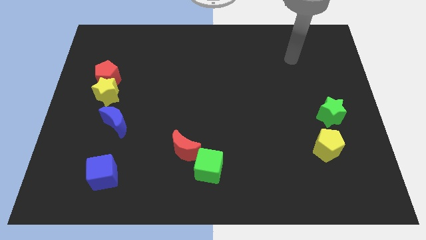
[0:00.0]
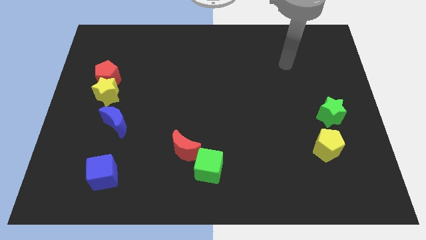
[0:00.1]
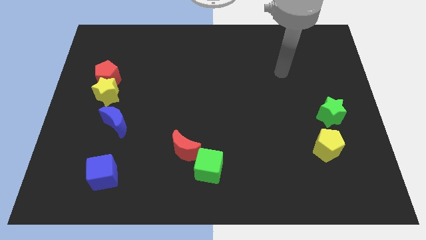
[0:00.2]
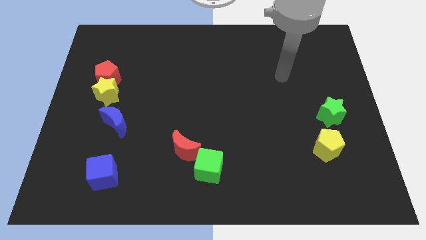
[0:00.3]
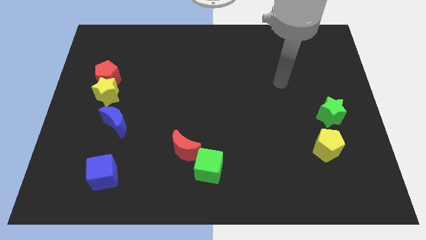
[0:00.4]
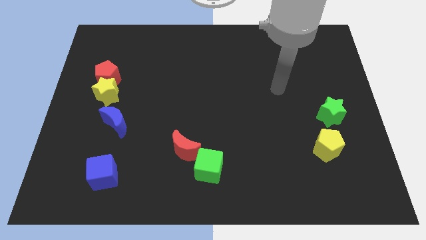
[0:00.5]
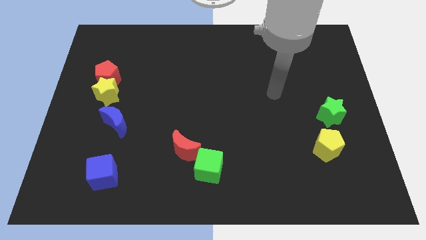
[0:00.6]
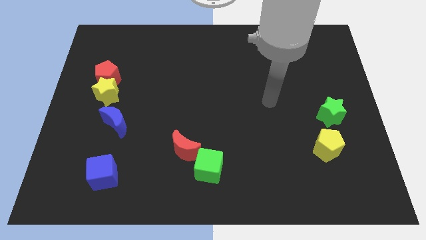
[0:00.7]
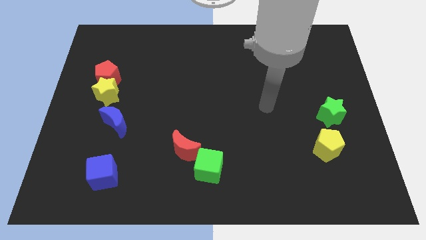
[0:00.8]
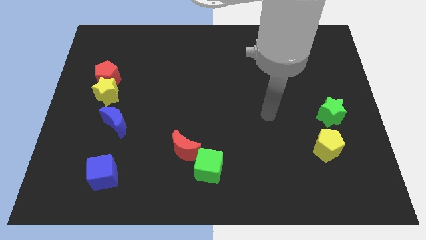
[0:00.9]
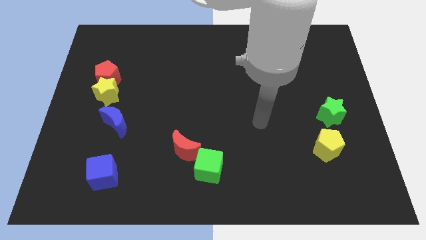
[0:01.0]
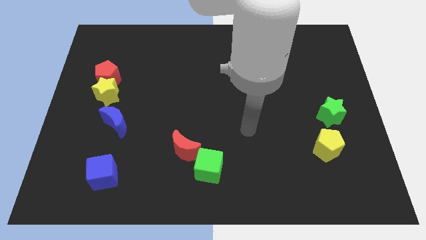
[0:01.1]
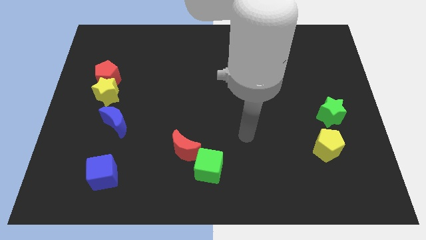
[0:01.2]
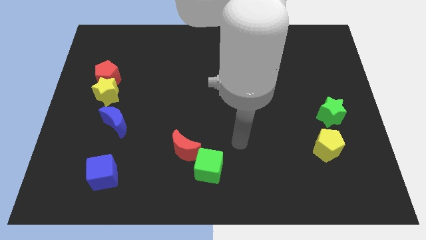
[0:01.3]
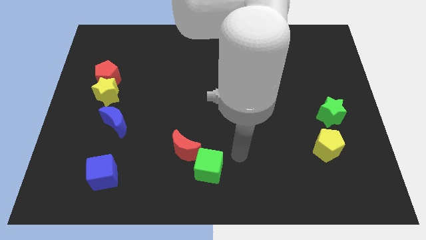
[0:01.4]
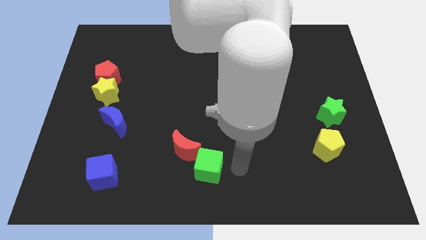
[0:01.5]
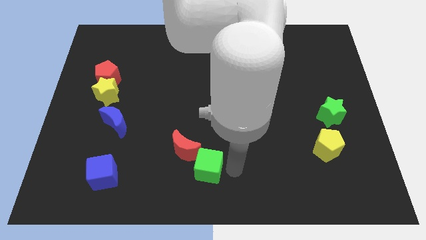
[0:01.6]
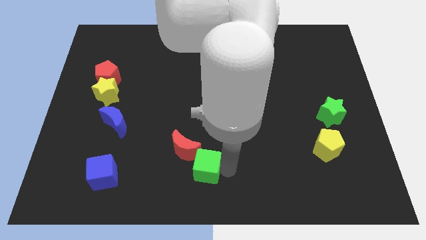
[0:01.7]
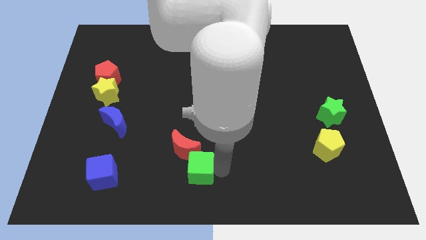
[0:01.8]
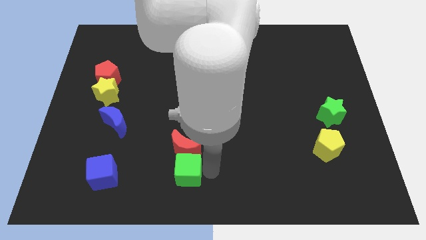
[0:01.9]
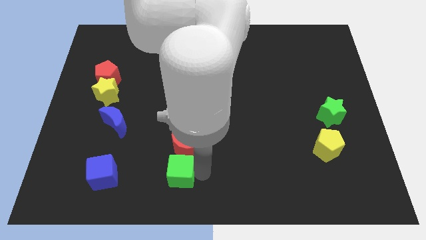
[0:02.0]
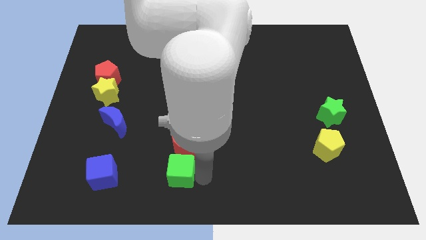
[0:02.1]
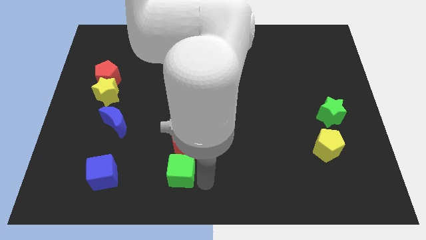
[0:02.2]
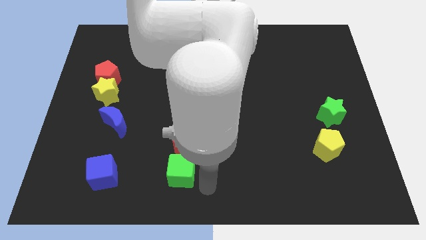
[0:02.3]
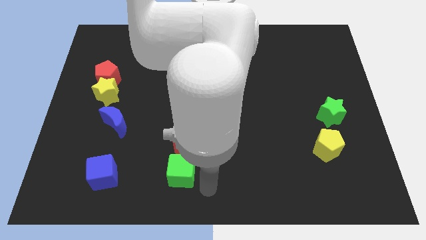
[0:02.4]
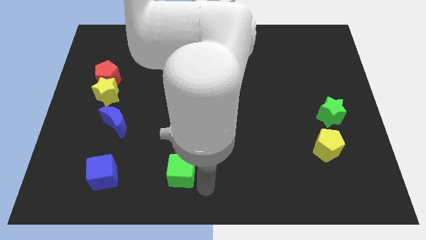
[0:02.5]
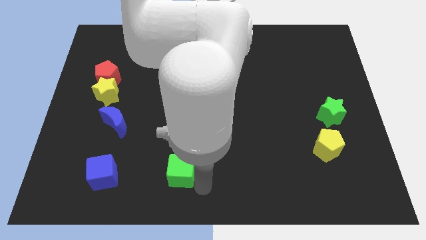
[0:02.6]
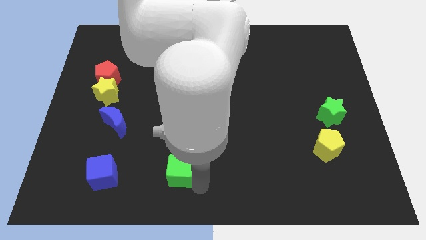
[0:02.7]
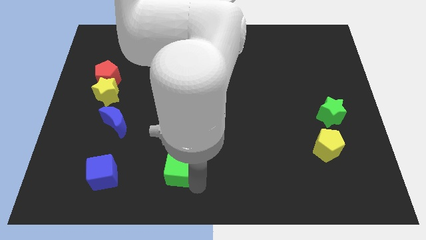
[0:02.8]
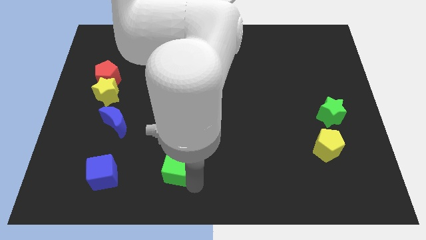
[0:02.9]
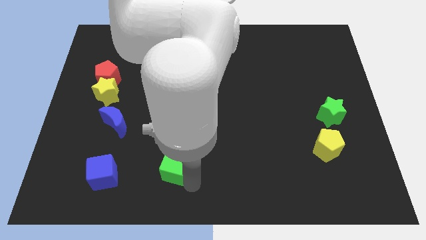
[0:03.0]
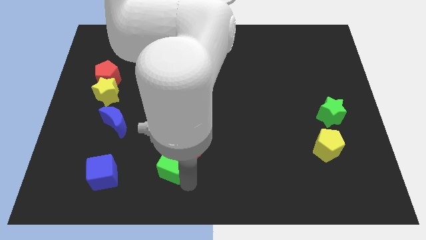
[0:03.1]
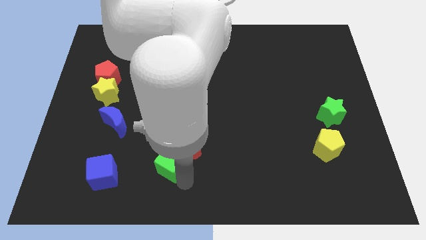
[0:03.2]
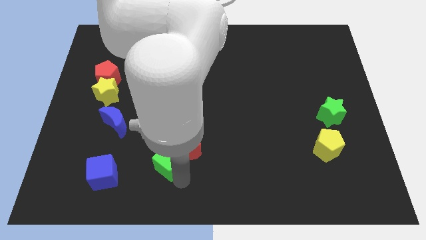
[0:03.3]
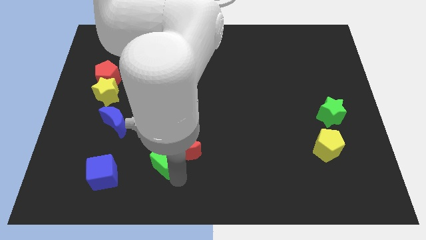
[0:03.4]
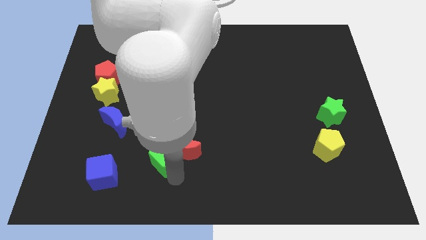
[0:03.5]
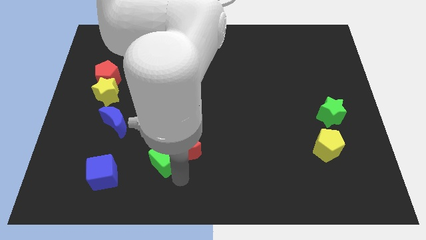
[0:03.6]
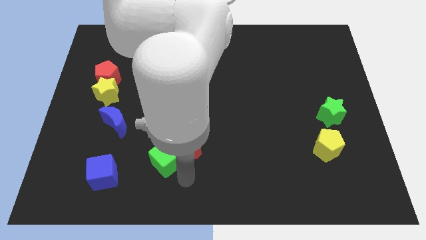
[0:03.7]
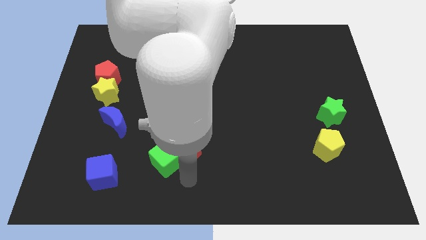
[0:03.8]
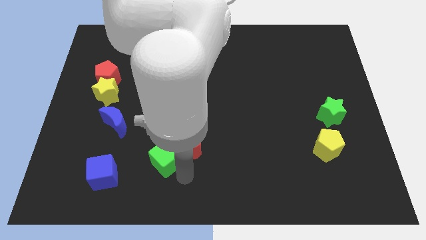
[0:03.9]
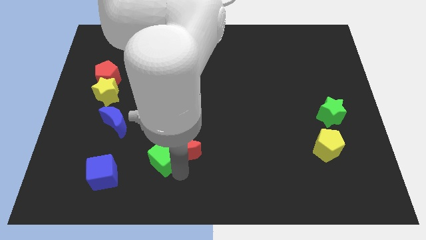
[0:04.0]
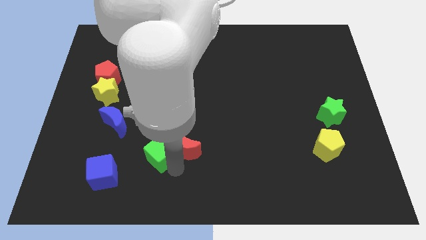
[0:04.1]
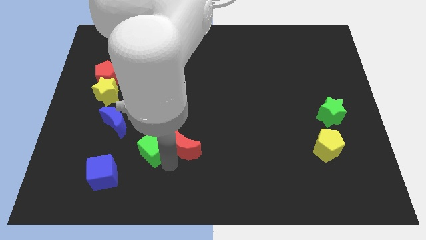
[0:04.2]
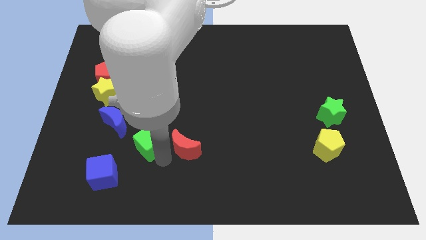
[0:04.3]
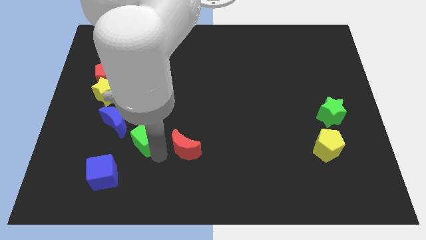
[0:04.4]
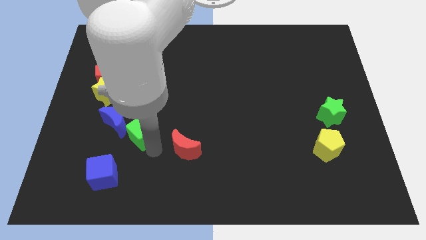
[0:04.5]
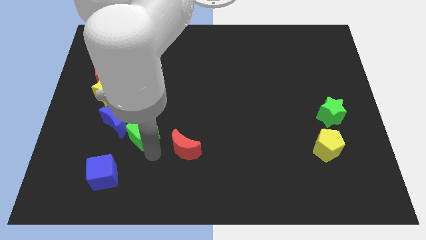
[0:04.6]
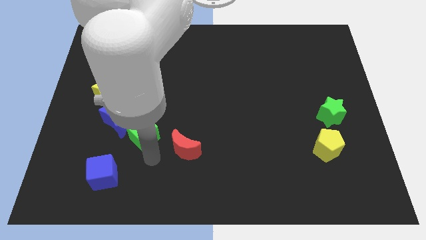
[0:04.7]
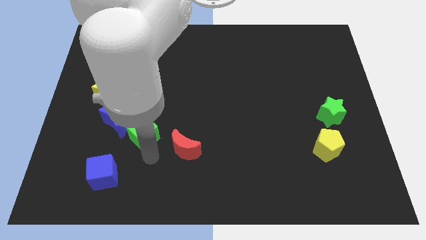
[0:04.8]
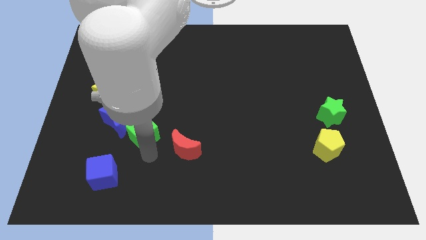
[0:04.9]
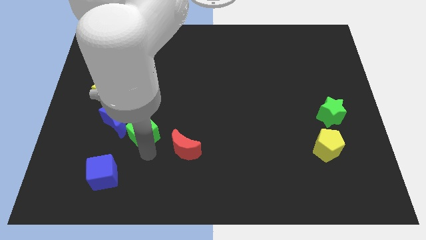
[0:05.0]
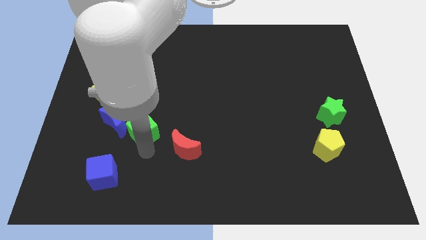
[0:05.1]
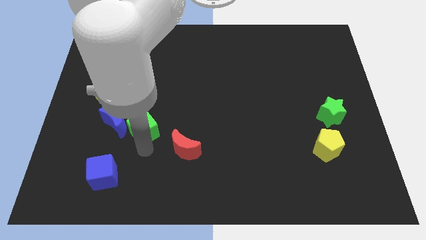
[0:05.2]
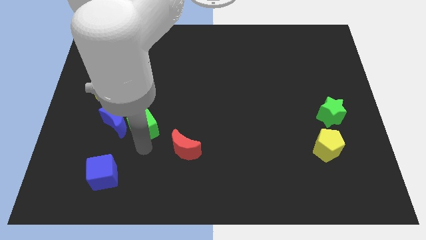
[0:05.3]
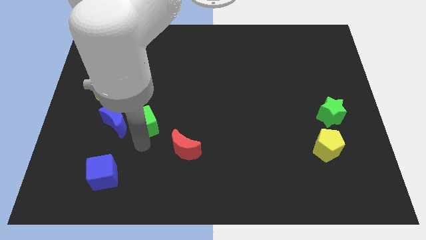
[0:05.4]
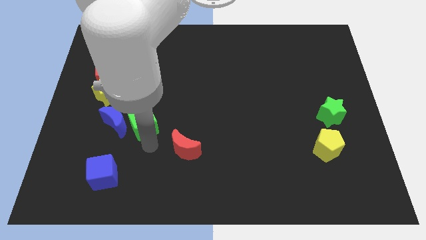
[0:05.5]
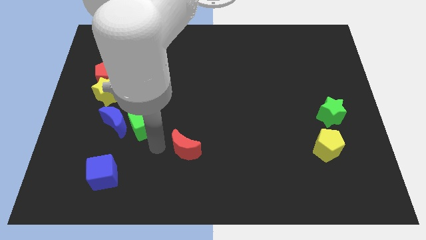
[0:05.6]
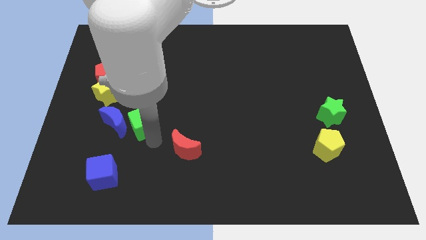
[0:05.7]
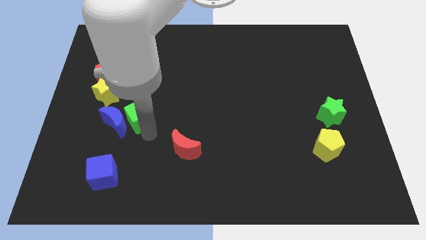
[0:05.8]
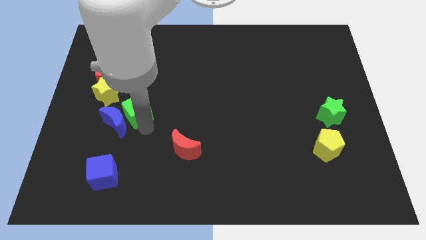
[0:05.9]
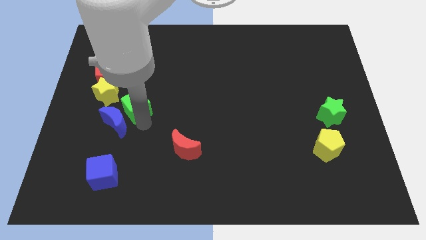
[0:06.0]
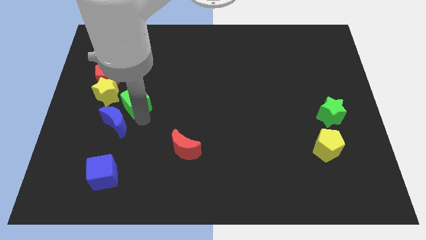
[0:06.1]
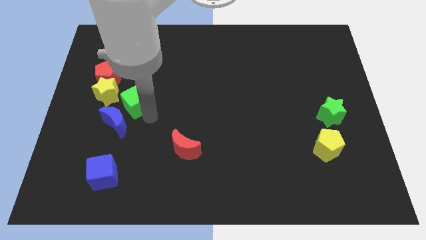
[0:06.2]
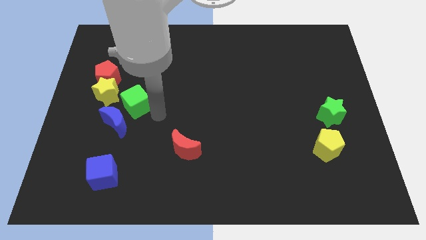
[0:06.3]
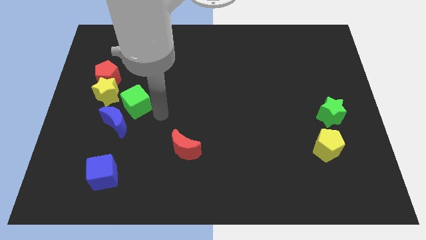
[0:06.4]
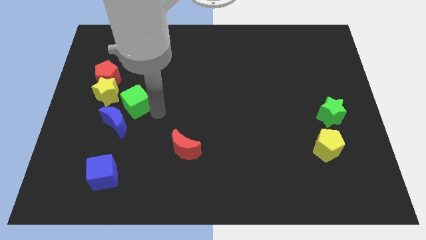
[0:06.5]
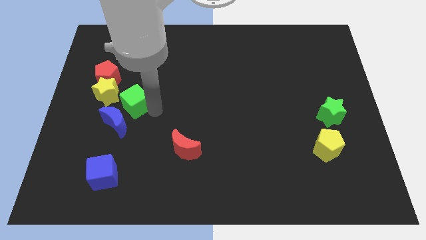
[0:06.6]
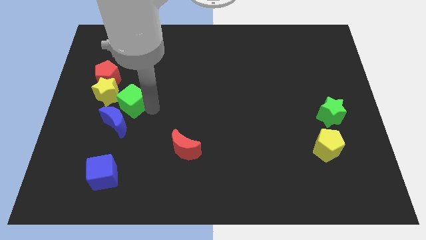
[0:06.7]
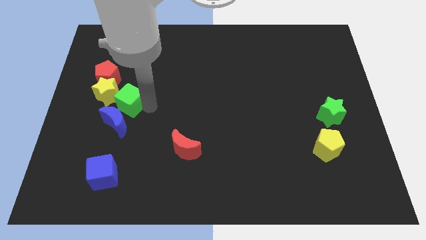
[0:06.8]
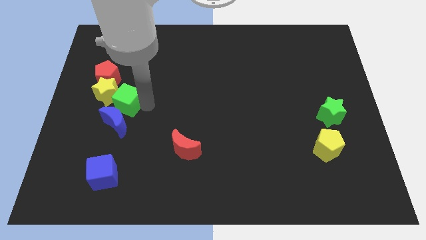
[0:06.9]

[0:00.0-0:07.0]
move the green cube close to the yellow star

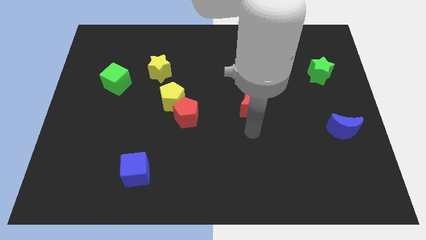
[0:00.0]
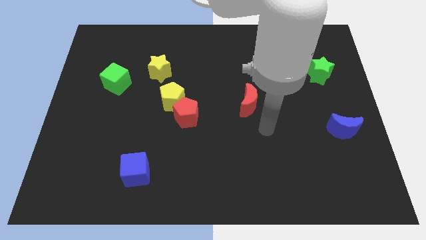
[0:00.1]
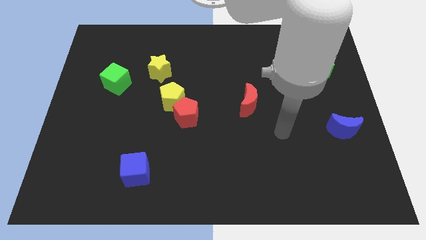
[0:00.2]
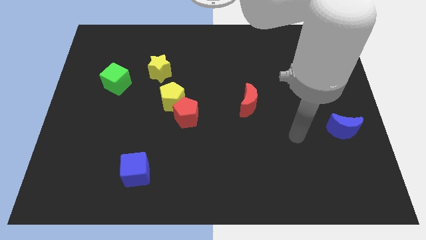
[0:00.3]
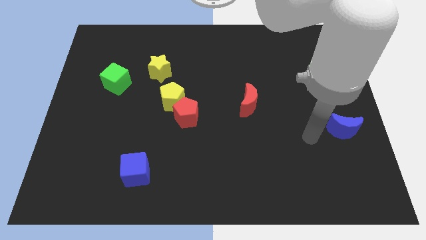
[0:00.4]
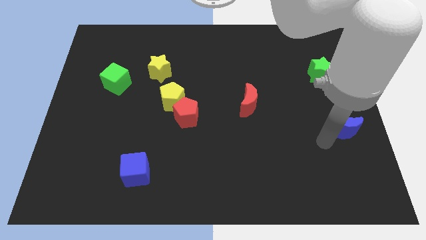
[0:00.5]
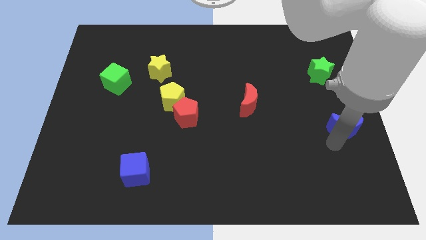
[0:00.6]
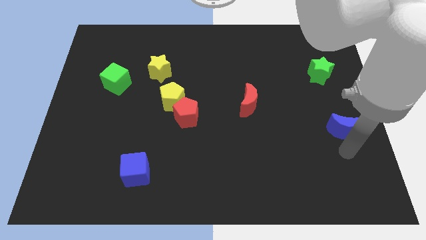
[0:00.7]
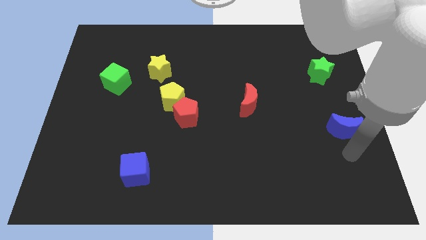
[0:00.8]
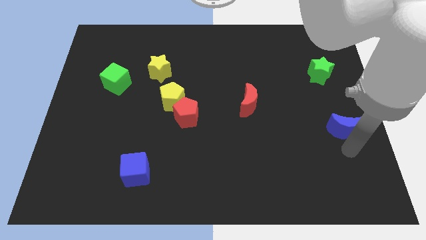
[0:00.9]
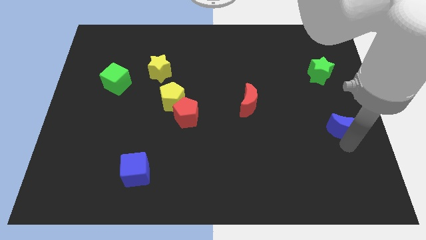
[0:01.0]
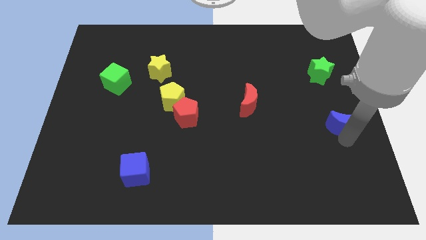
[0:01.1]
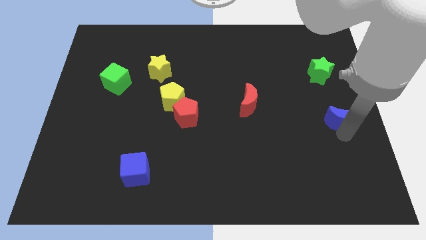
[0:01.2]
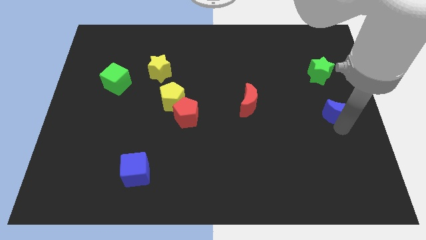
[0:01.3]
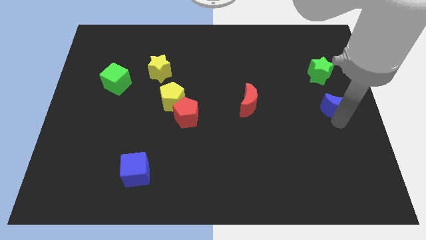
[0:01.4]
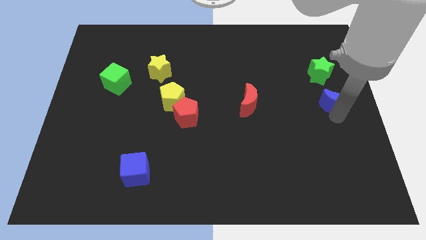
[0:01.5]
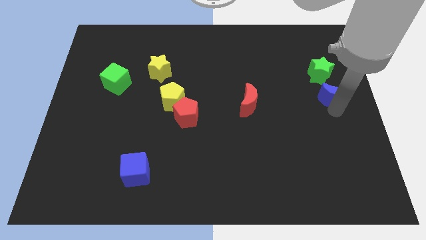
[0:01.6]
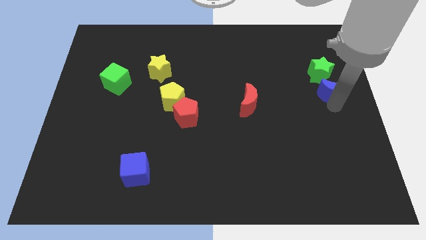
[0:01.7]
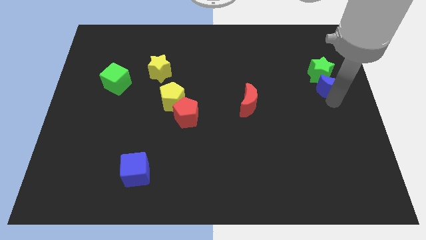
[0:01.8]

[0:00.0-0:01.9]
move the blue moon next to the green star
